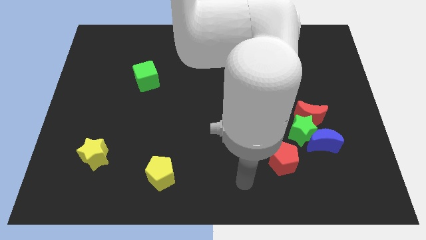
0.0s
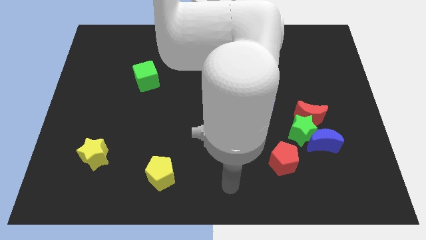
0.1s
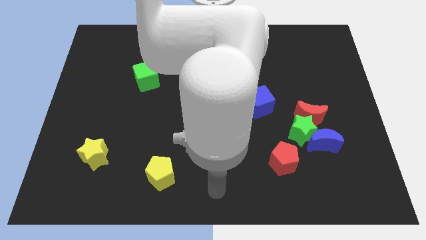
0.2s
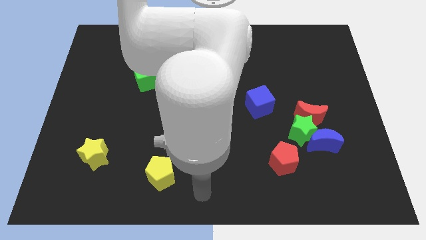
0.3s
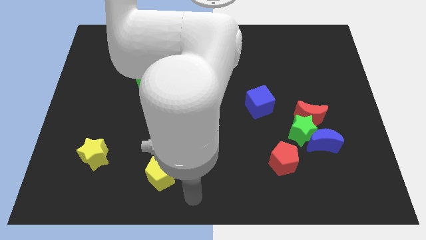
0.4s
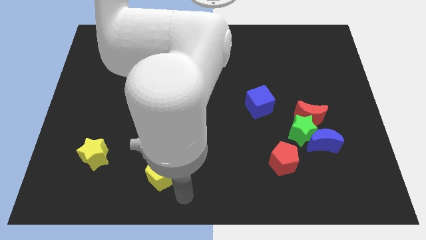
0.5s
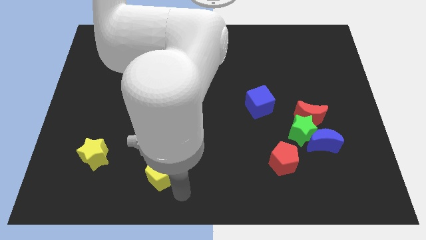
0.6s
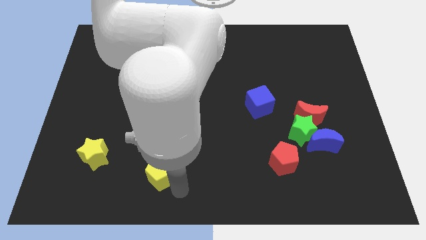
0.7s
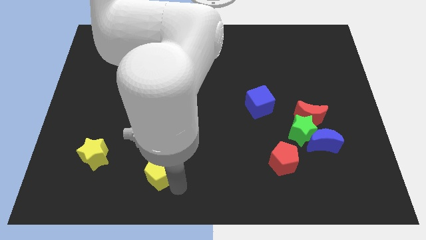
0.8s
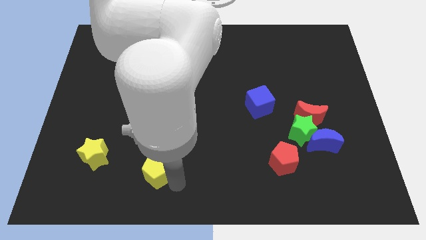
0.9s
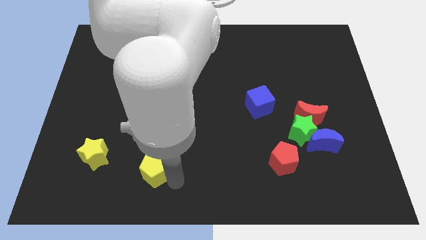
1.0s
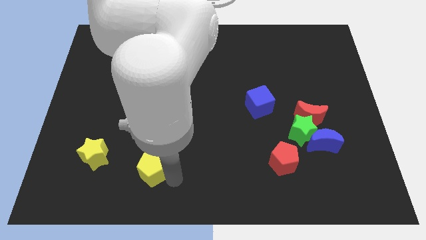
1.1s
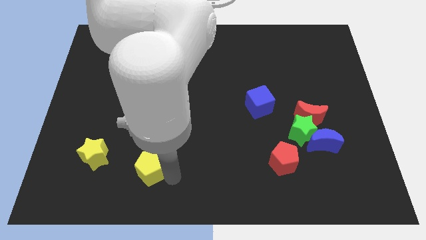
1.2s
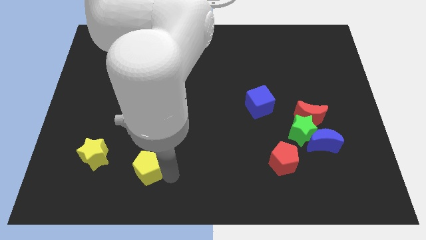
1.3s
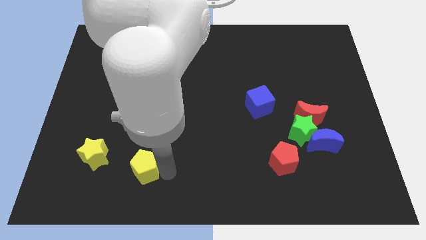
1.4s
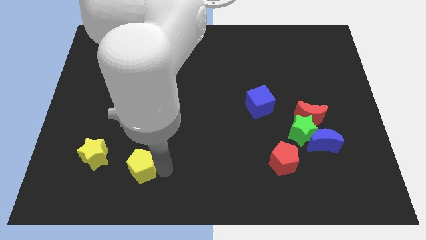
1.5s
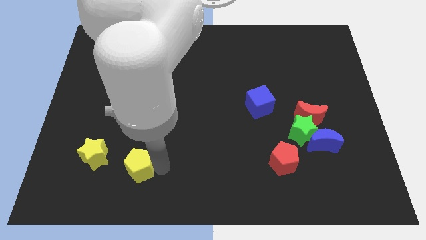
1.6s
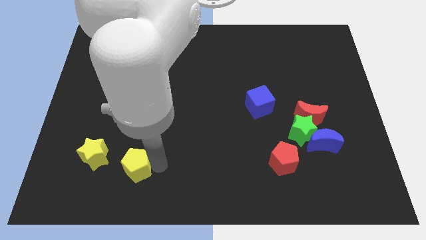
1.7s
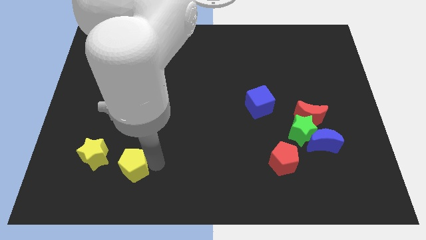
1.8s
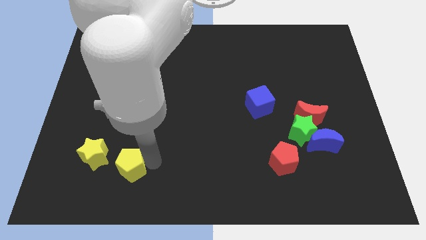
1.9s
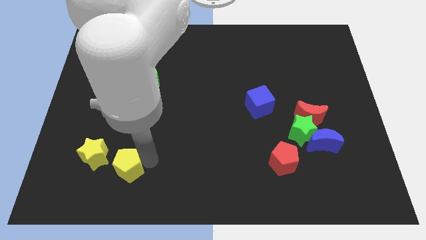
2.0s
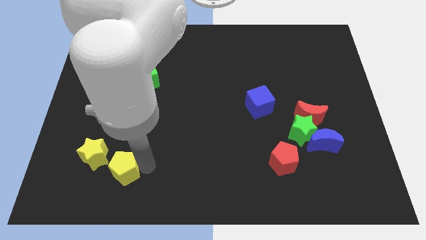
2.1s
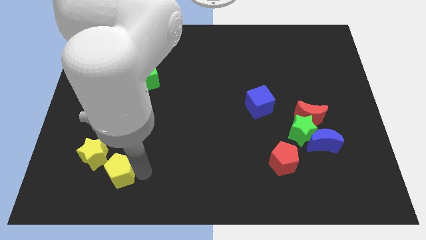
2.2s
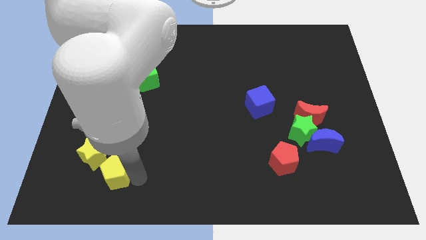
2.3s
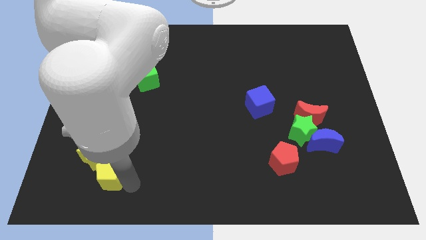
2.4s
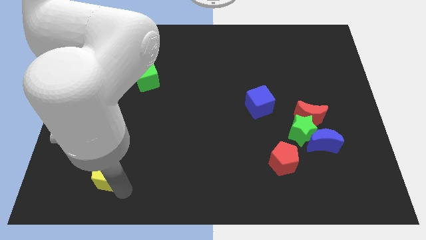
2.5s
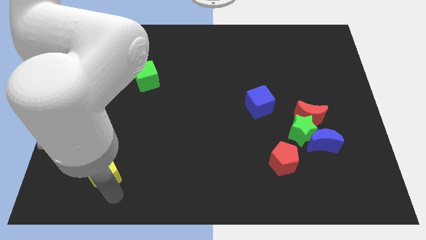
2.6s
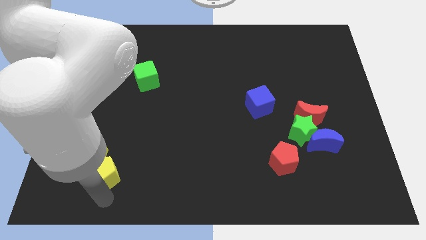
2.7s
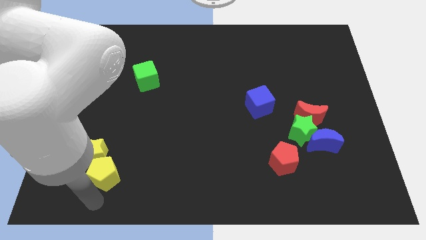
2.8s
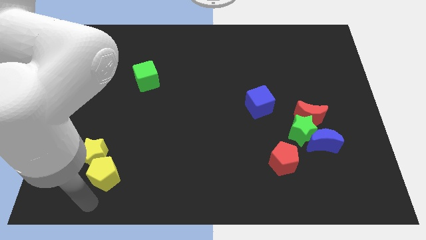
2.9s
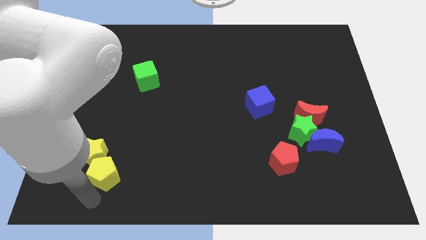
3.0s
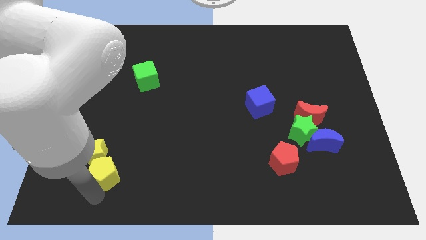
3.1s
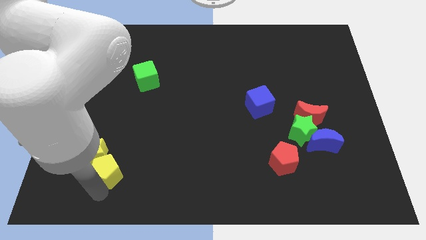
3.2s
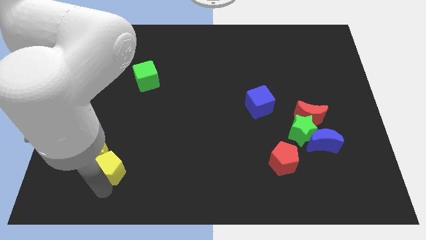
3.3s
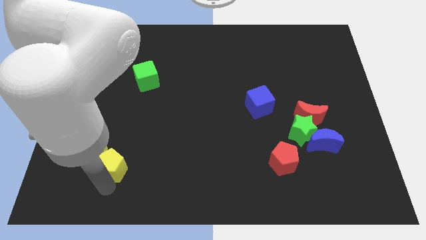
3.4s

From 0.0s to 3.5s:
move the yellow pentagon upwards and to the left diagonally somewhat

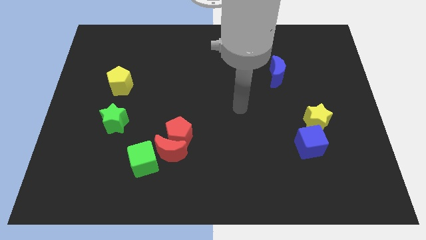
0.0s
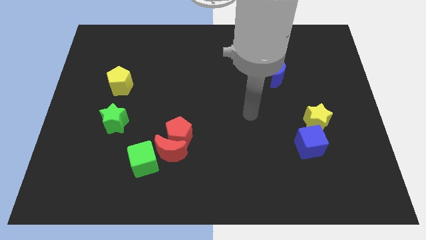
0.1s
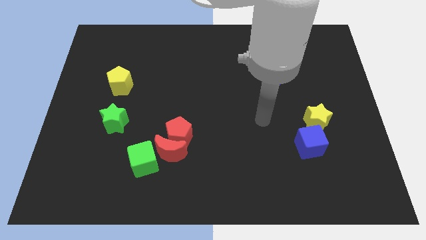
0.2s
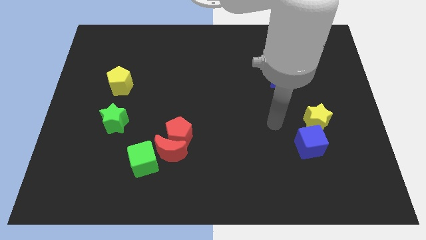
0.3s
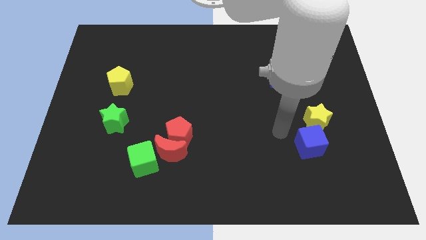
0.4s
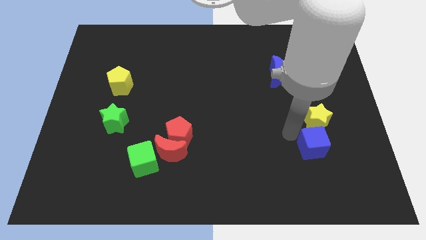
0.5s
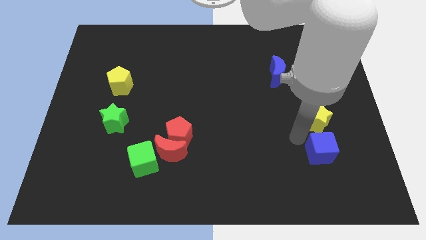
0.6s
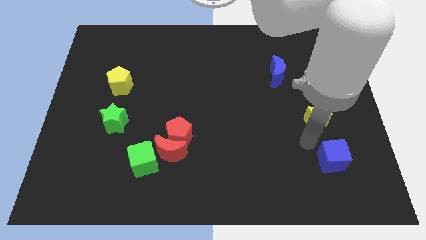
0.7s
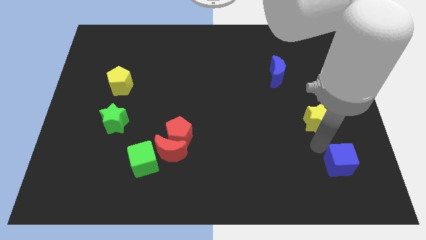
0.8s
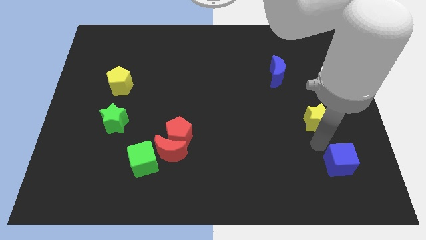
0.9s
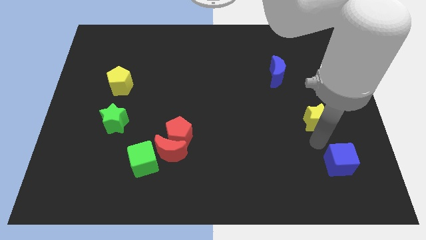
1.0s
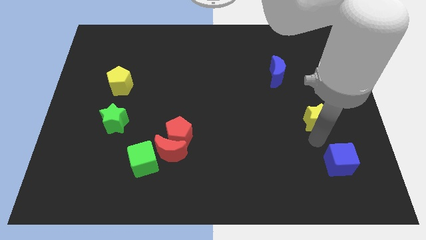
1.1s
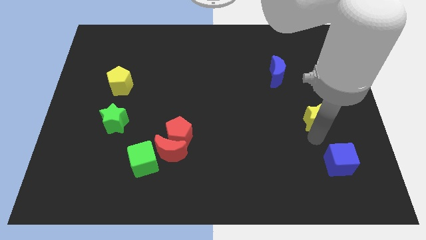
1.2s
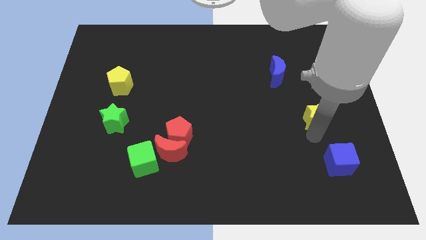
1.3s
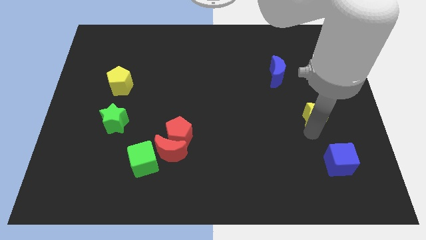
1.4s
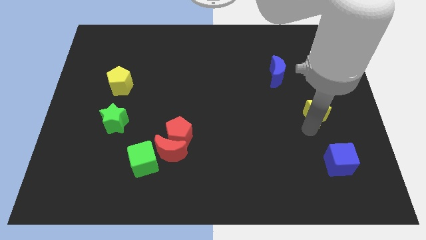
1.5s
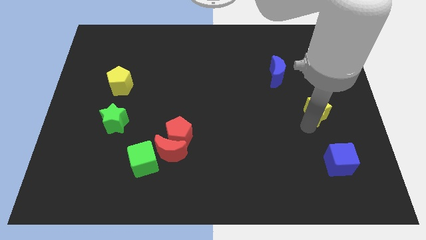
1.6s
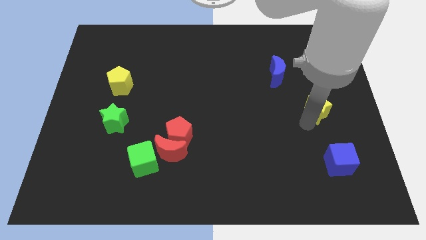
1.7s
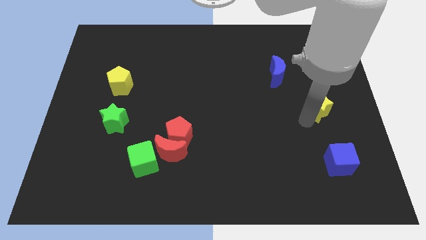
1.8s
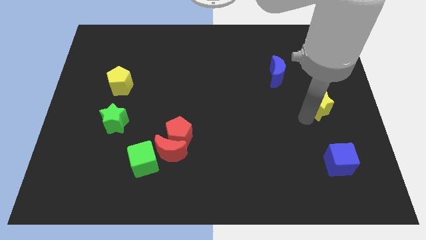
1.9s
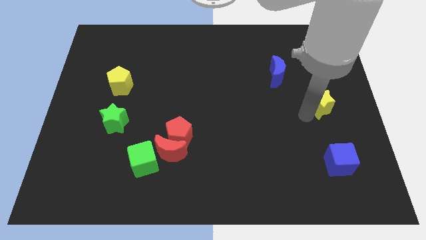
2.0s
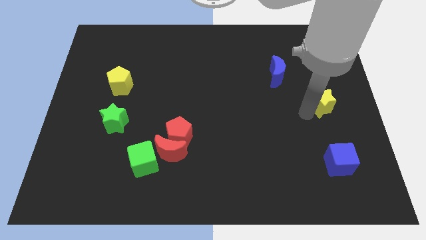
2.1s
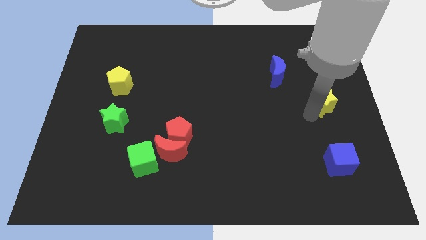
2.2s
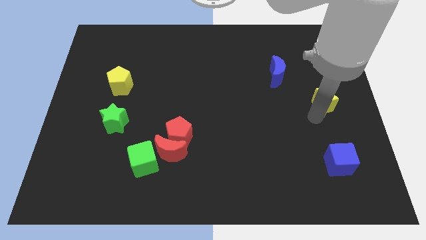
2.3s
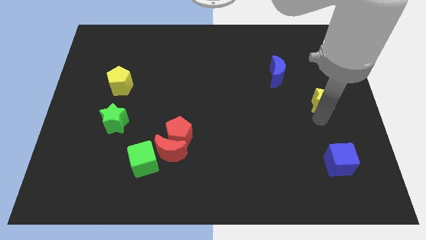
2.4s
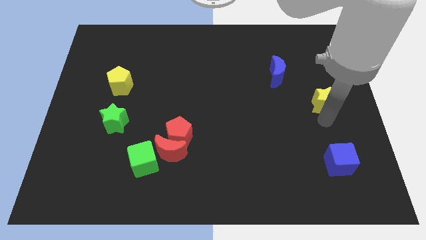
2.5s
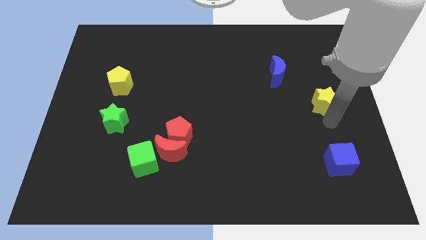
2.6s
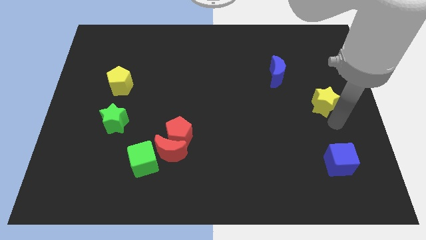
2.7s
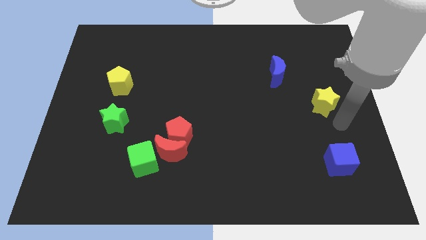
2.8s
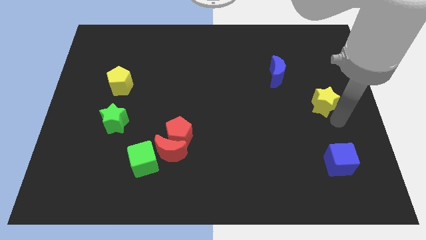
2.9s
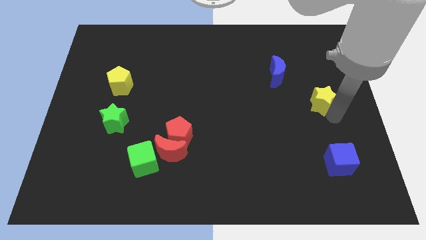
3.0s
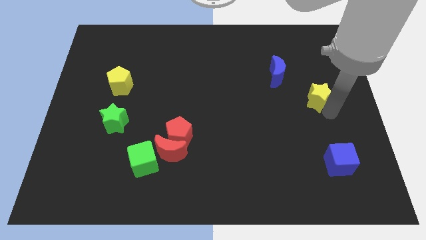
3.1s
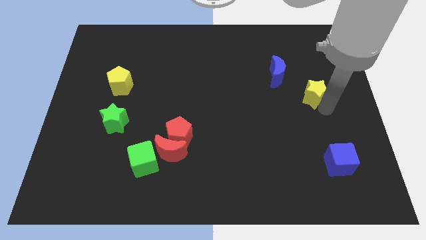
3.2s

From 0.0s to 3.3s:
slightly push the yellow star up

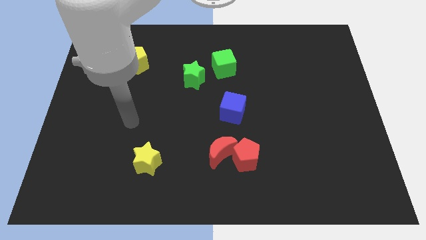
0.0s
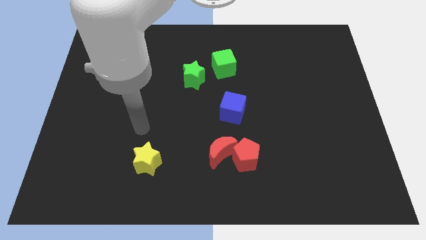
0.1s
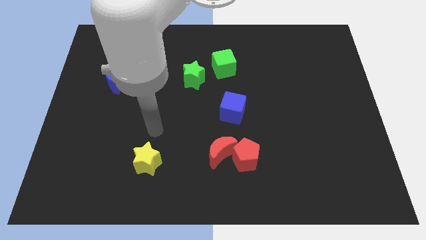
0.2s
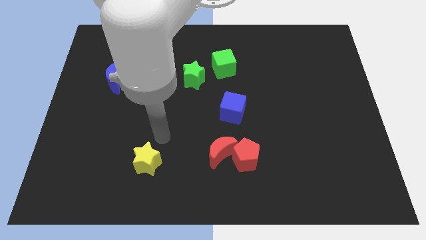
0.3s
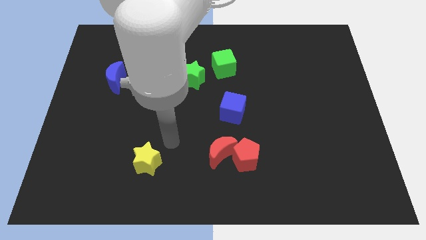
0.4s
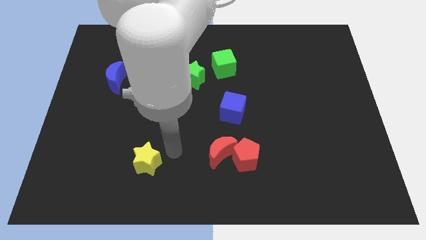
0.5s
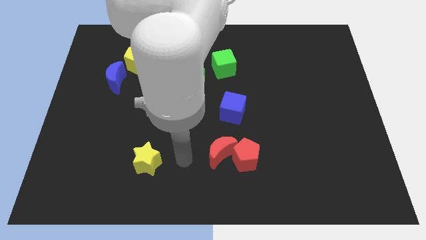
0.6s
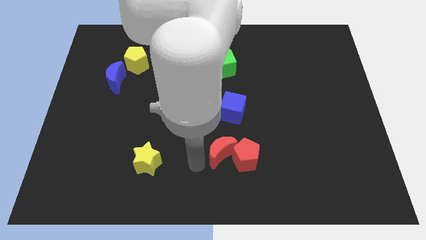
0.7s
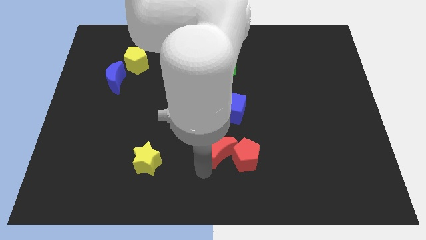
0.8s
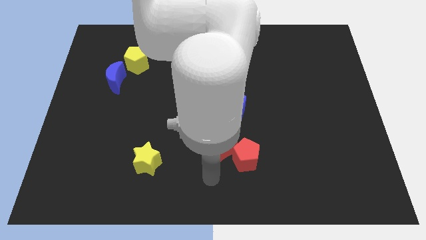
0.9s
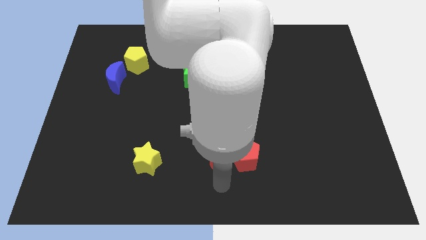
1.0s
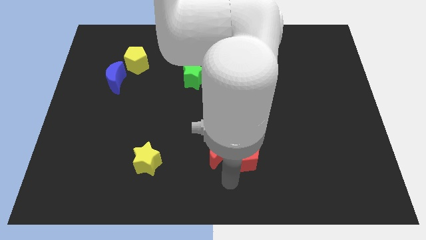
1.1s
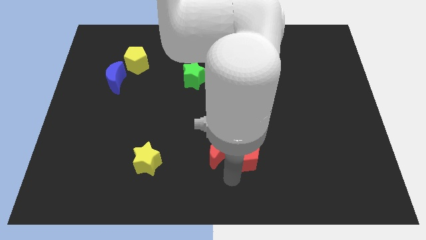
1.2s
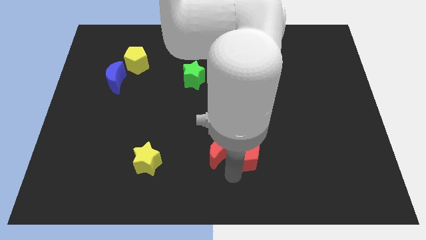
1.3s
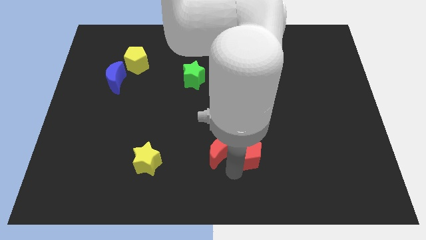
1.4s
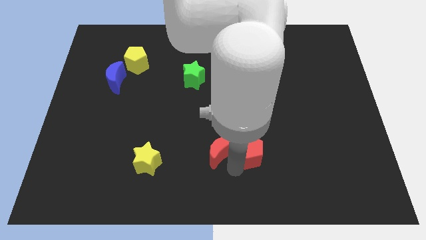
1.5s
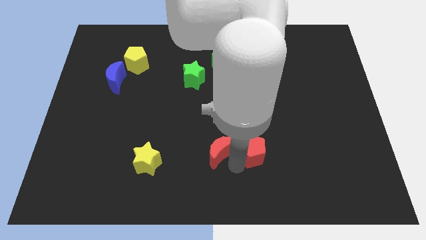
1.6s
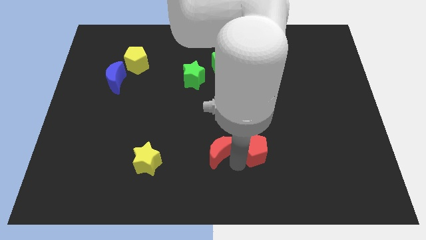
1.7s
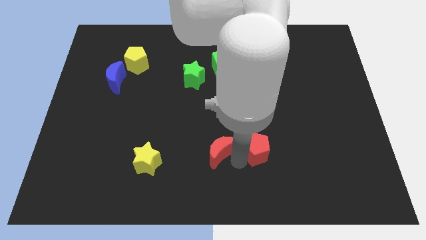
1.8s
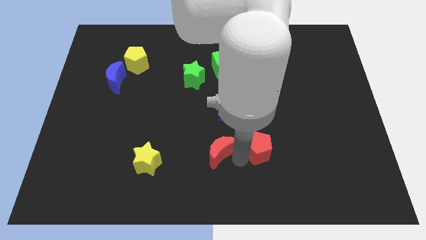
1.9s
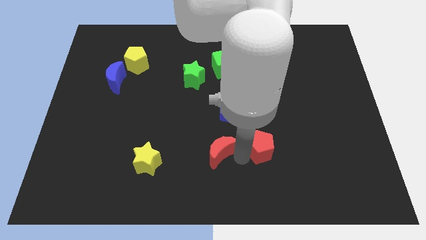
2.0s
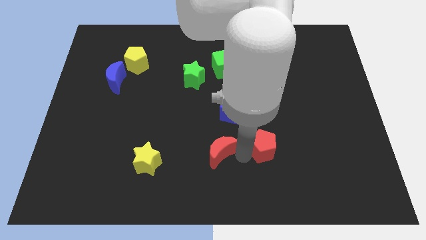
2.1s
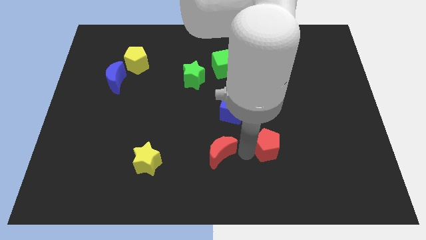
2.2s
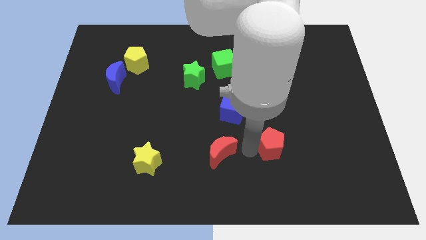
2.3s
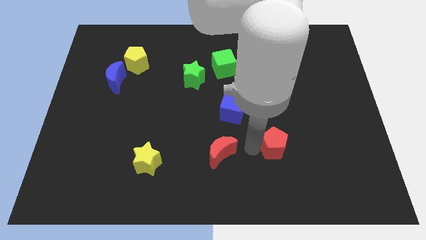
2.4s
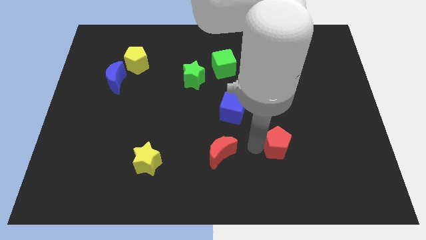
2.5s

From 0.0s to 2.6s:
push the red pentagon upwards and to the right a bit
